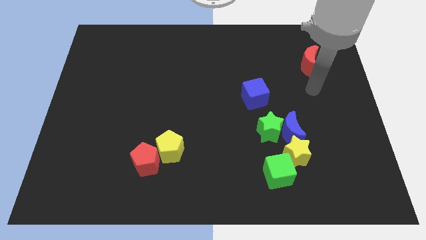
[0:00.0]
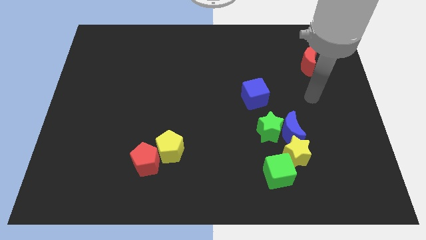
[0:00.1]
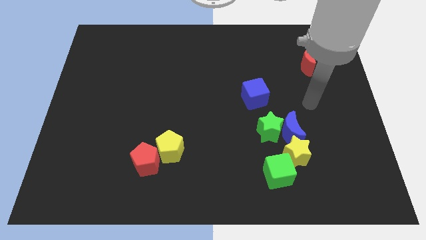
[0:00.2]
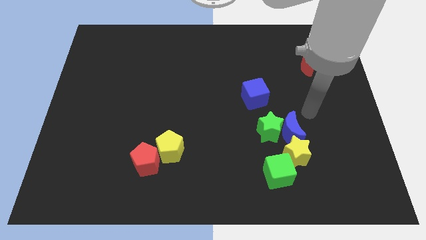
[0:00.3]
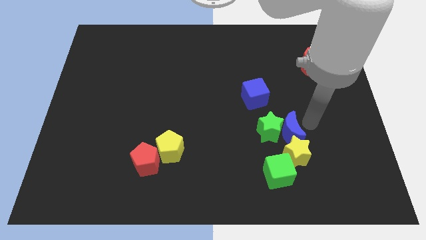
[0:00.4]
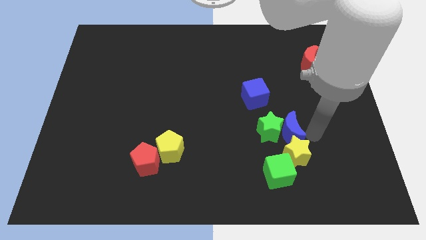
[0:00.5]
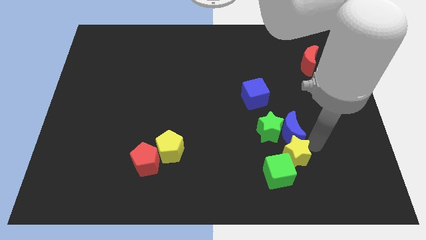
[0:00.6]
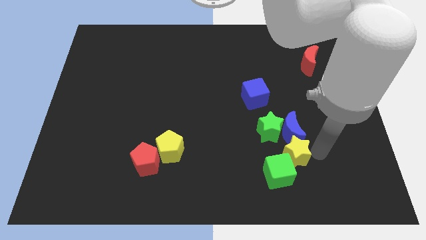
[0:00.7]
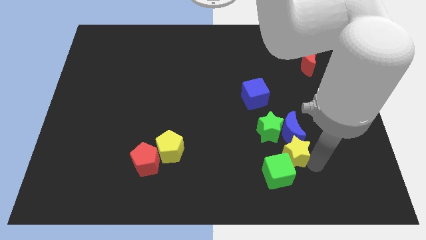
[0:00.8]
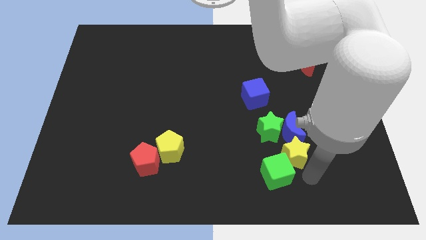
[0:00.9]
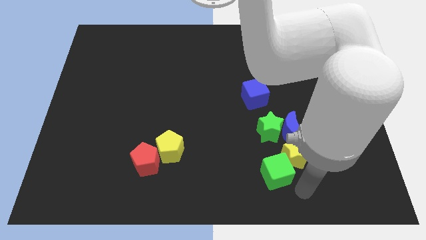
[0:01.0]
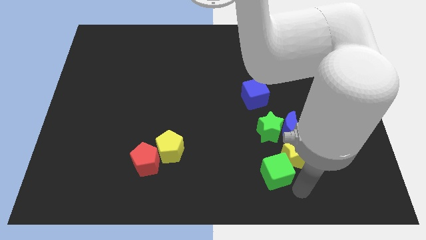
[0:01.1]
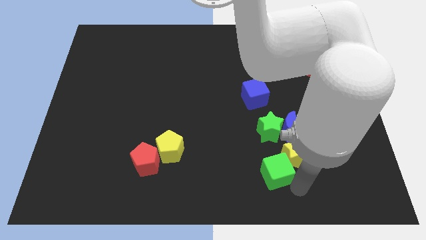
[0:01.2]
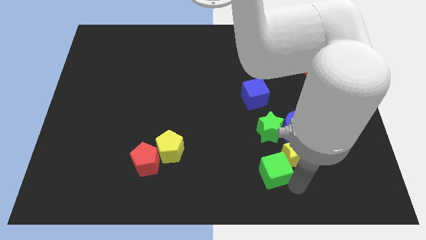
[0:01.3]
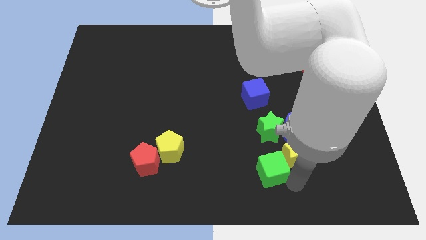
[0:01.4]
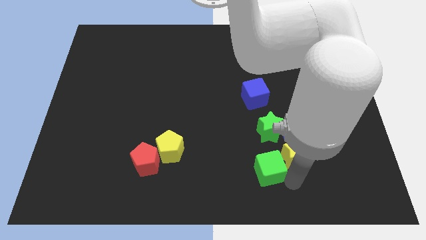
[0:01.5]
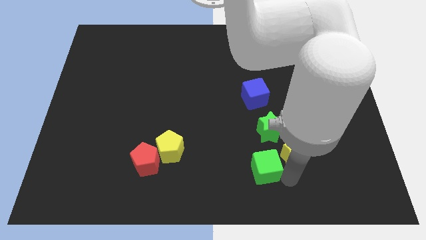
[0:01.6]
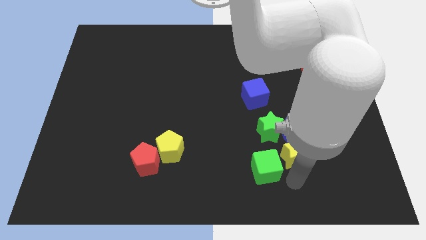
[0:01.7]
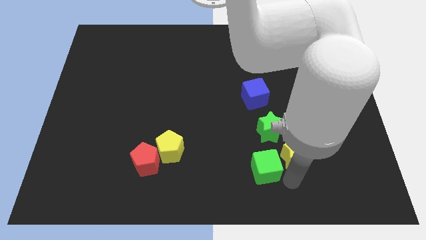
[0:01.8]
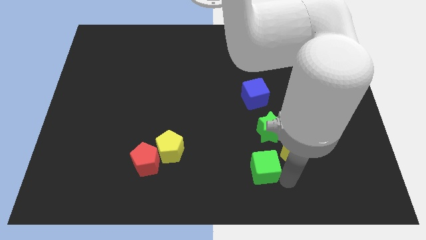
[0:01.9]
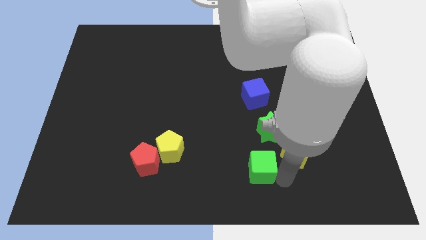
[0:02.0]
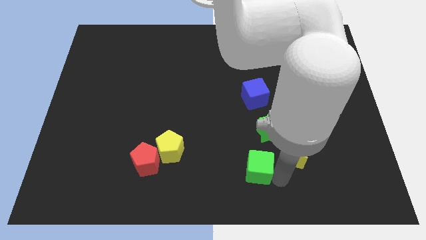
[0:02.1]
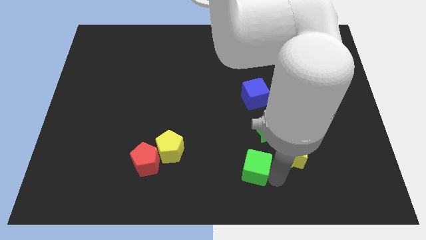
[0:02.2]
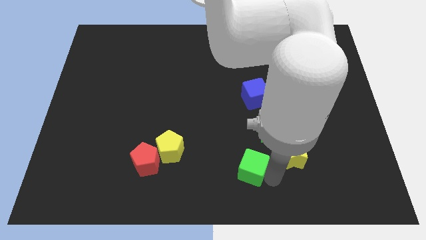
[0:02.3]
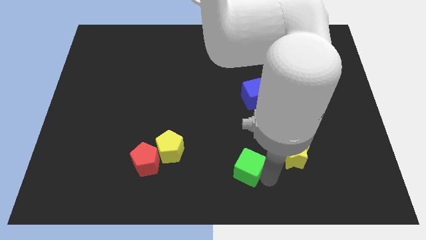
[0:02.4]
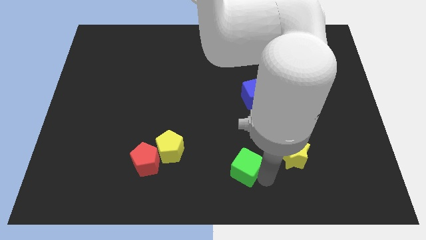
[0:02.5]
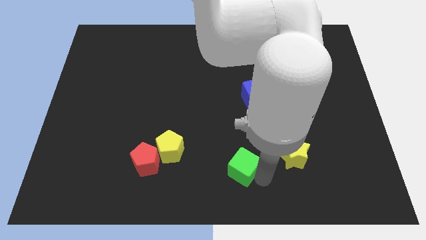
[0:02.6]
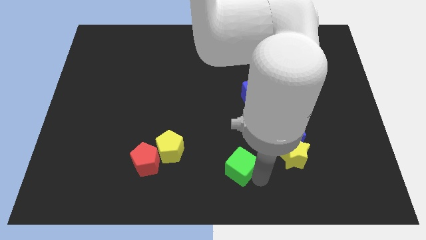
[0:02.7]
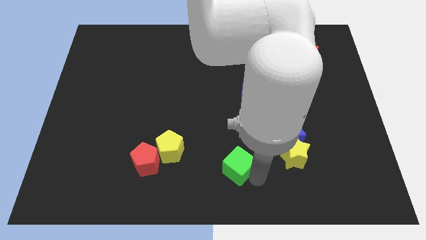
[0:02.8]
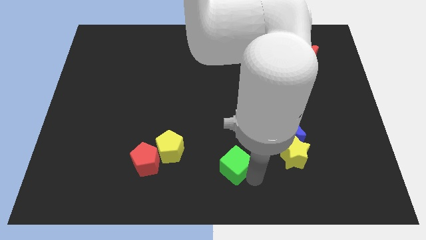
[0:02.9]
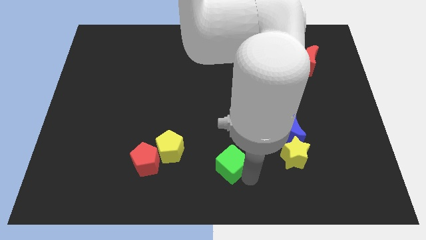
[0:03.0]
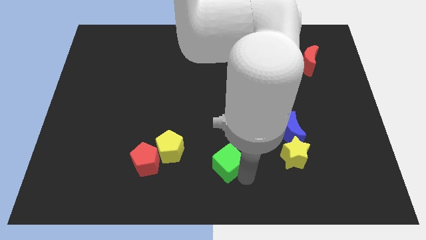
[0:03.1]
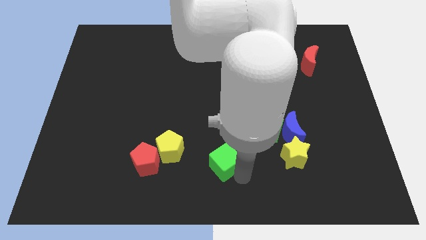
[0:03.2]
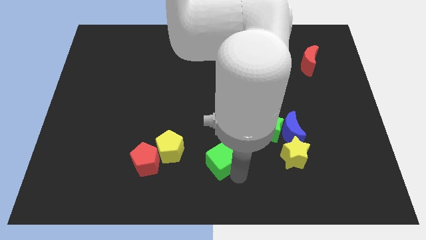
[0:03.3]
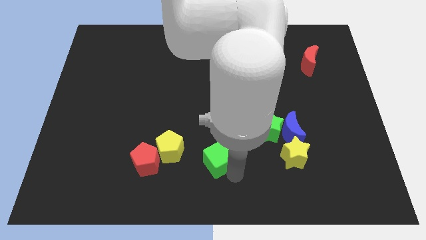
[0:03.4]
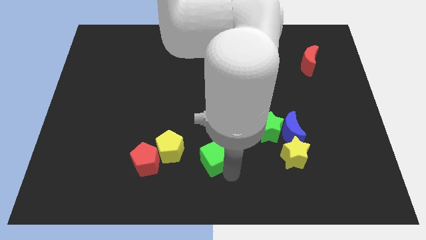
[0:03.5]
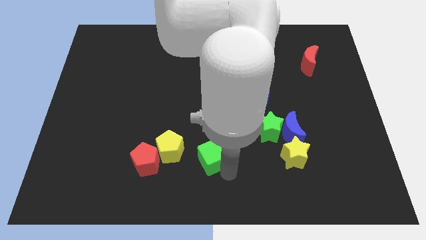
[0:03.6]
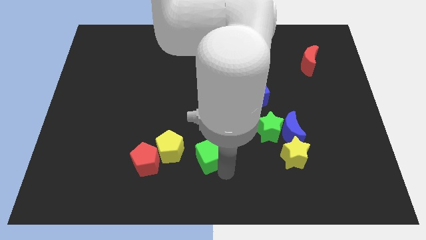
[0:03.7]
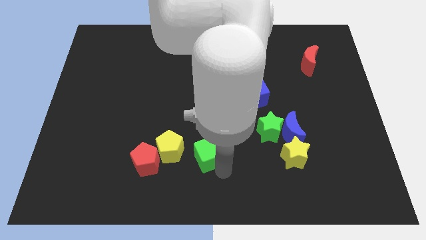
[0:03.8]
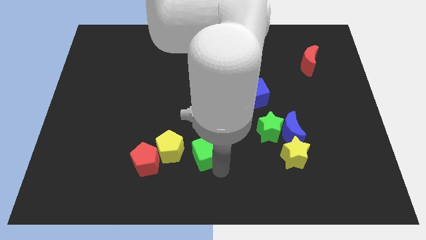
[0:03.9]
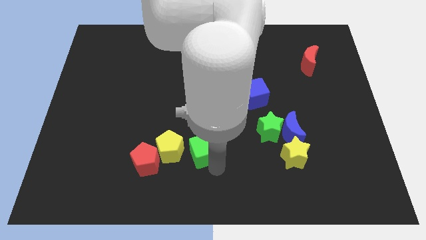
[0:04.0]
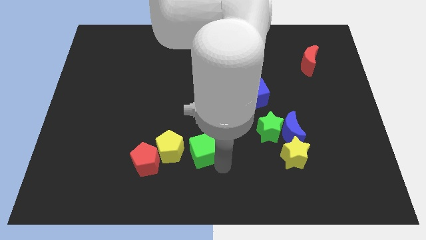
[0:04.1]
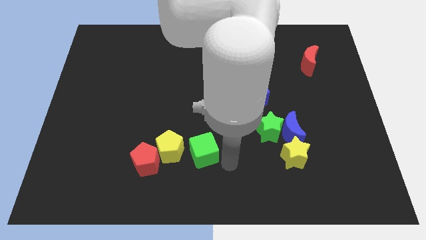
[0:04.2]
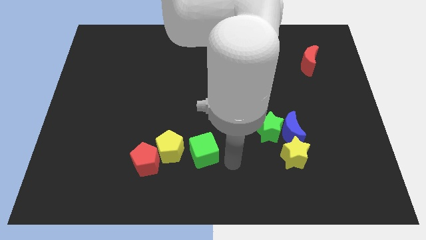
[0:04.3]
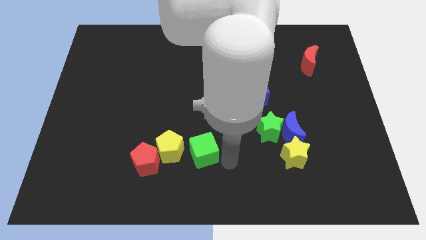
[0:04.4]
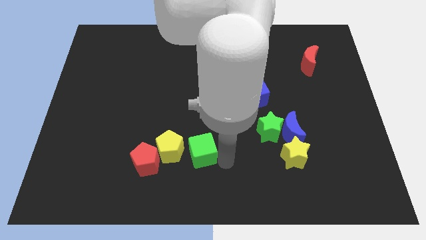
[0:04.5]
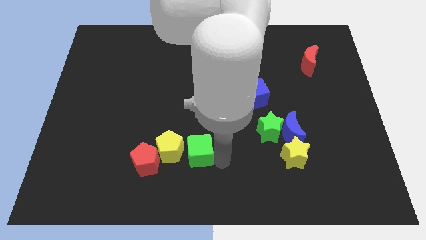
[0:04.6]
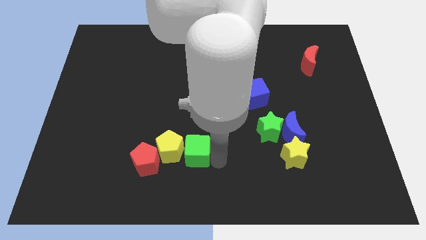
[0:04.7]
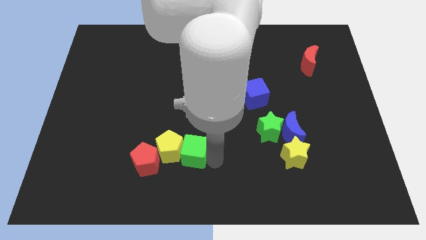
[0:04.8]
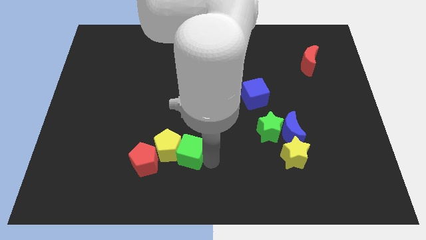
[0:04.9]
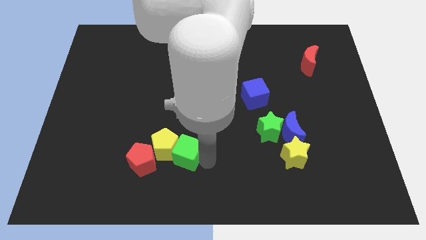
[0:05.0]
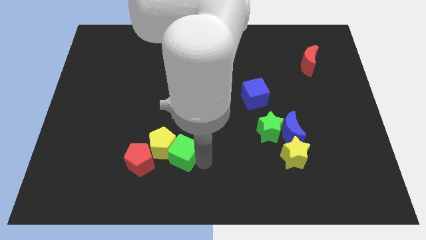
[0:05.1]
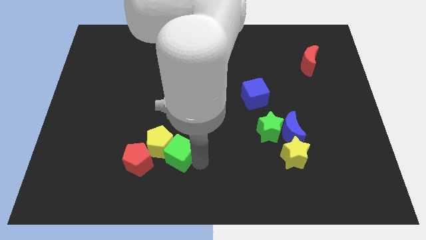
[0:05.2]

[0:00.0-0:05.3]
push the green cube diagonally up and to the right of the red pentagon

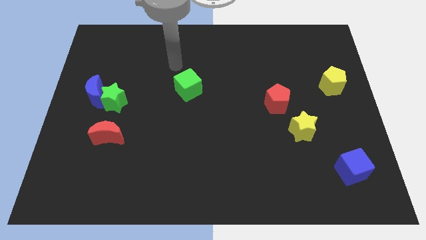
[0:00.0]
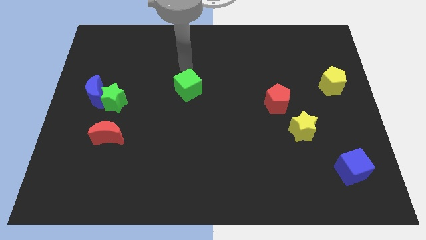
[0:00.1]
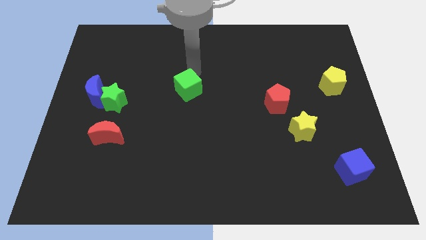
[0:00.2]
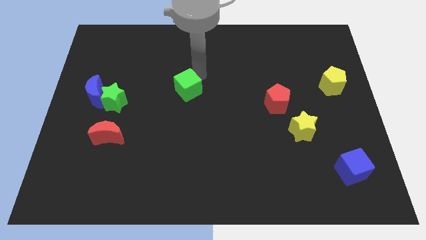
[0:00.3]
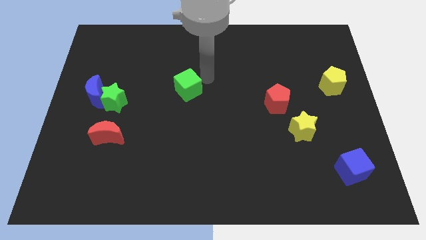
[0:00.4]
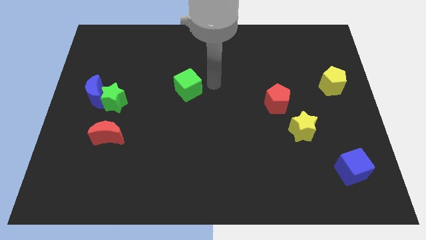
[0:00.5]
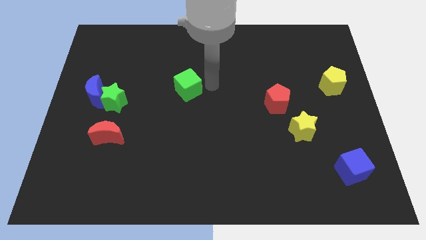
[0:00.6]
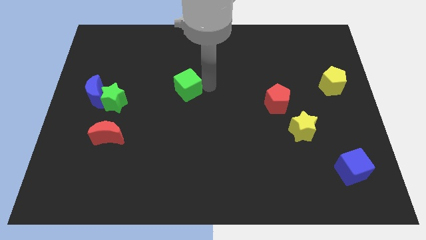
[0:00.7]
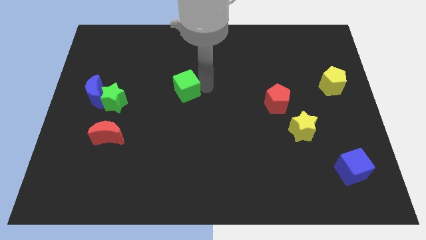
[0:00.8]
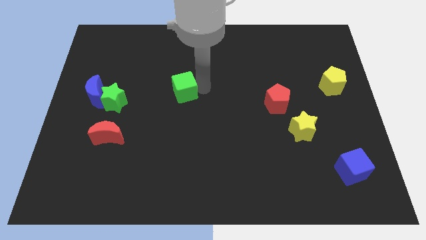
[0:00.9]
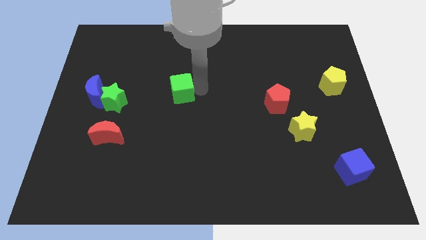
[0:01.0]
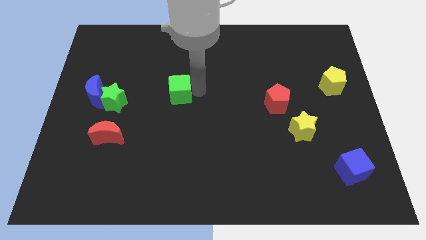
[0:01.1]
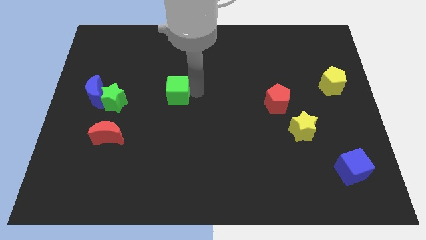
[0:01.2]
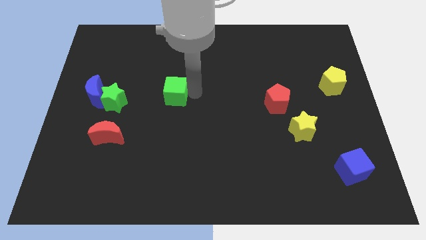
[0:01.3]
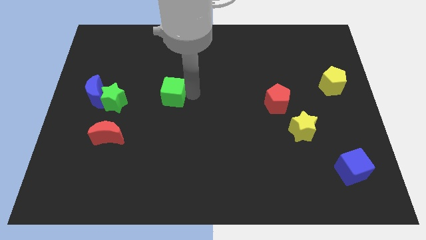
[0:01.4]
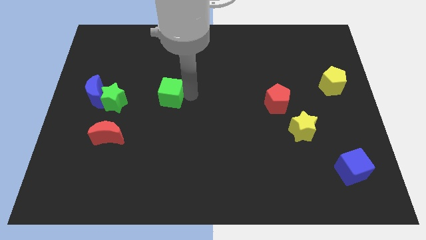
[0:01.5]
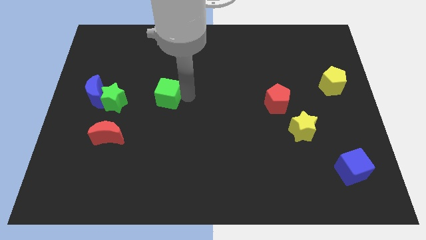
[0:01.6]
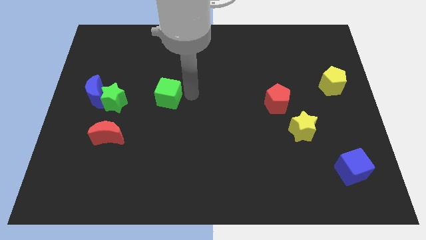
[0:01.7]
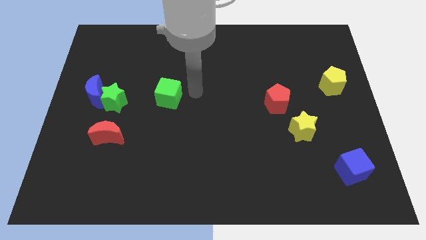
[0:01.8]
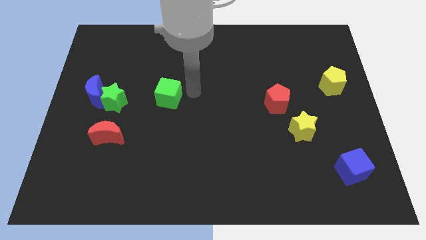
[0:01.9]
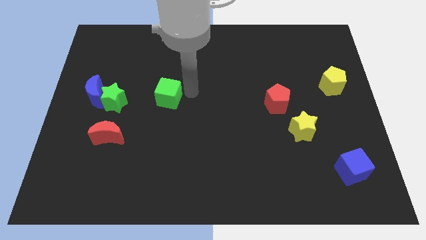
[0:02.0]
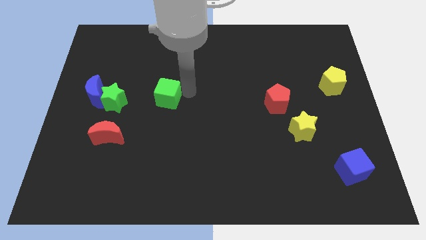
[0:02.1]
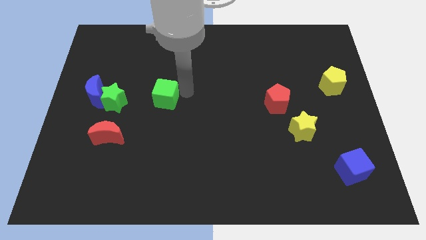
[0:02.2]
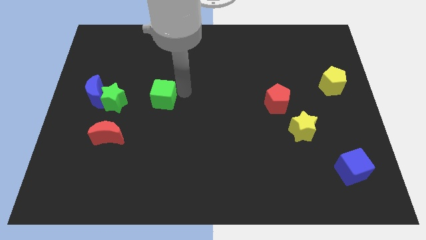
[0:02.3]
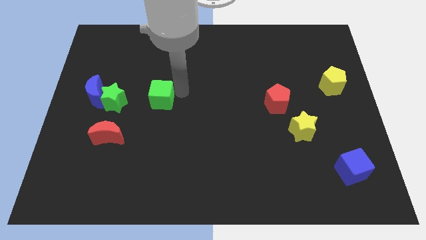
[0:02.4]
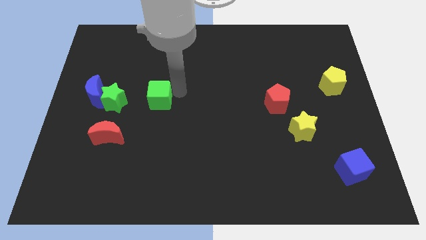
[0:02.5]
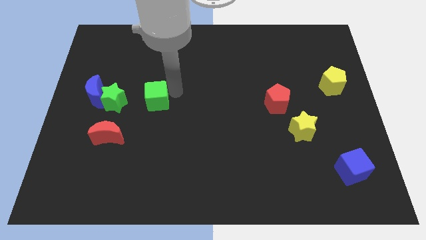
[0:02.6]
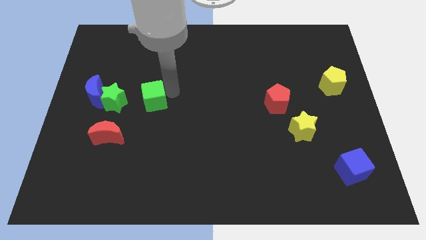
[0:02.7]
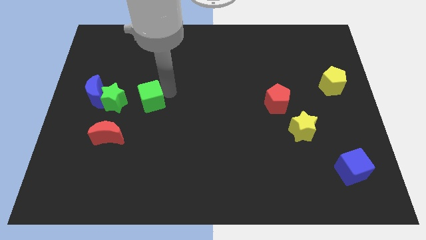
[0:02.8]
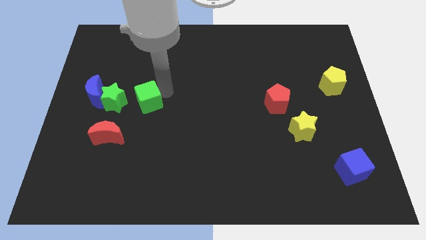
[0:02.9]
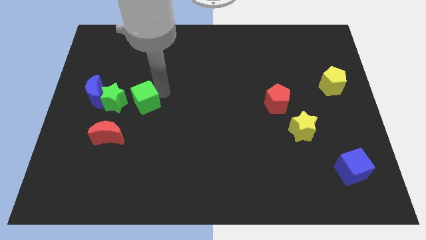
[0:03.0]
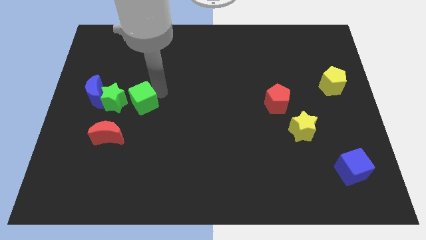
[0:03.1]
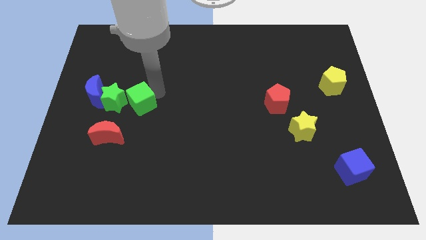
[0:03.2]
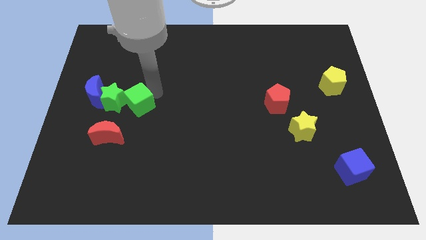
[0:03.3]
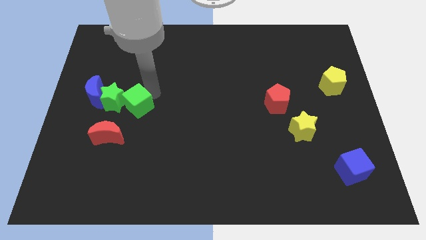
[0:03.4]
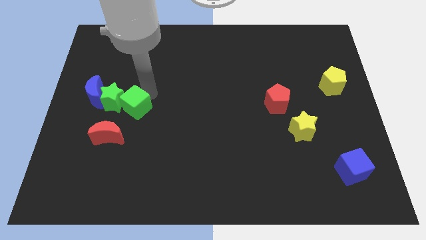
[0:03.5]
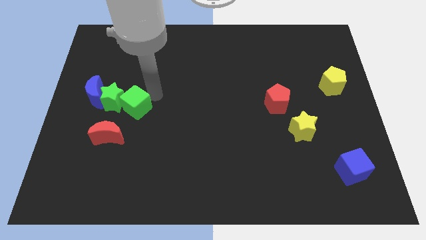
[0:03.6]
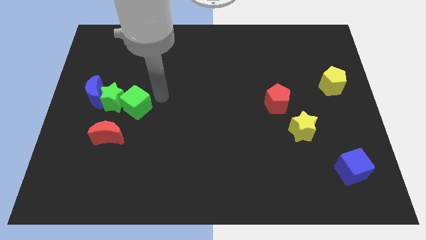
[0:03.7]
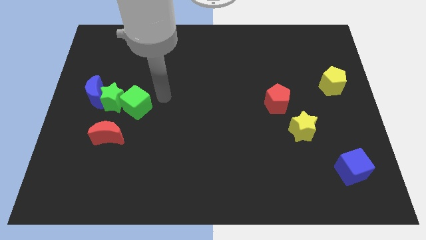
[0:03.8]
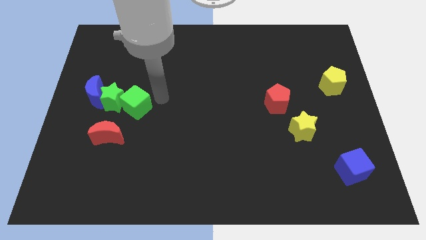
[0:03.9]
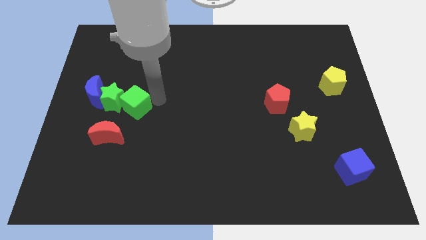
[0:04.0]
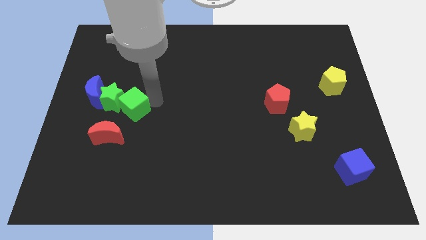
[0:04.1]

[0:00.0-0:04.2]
put the green cube to the bottom right of the blue moon
